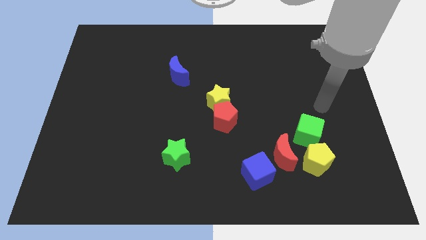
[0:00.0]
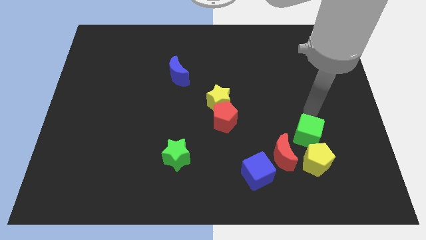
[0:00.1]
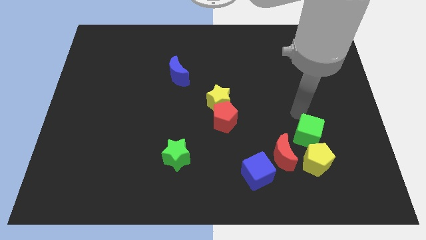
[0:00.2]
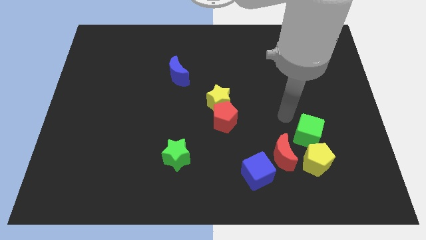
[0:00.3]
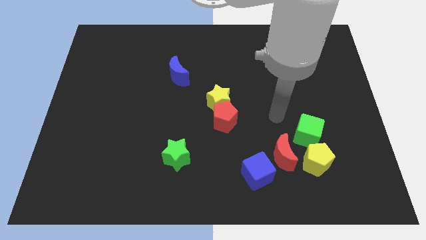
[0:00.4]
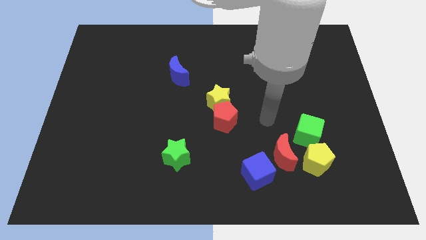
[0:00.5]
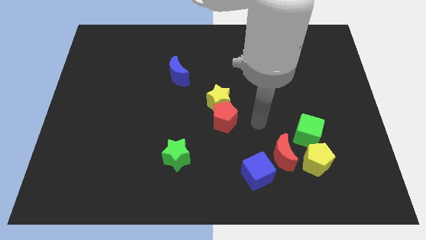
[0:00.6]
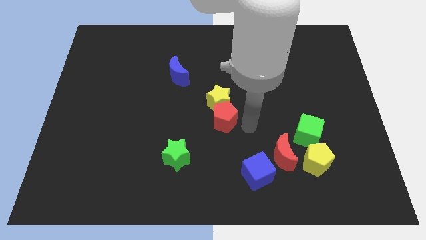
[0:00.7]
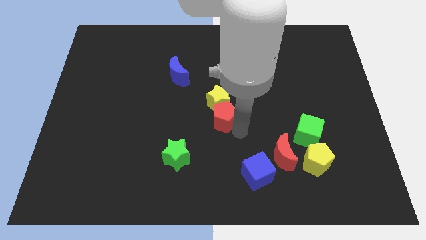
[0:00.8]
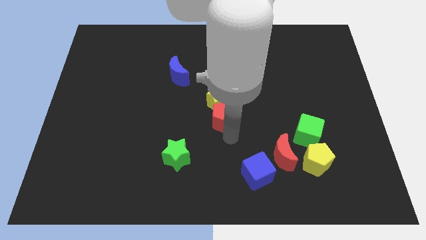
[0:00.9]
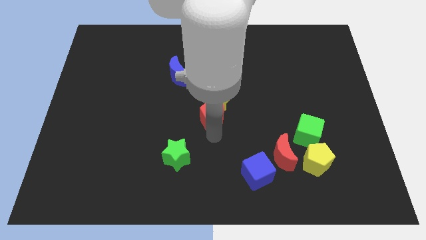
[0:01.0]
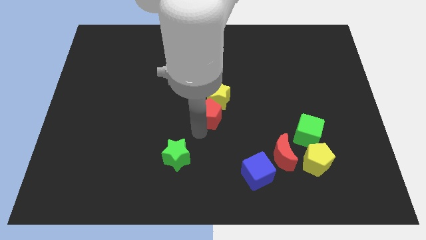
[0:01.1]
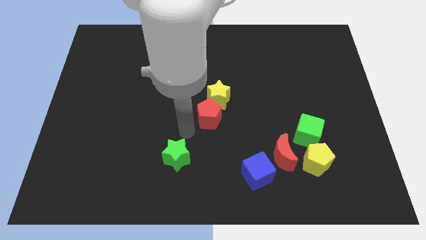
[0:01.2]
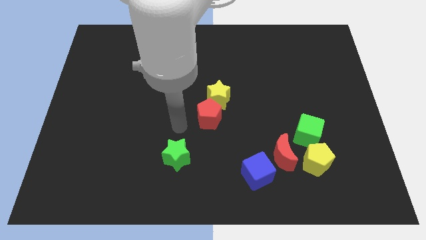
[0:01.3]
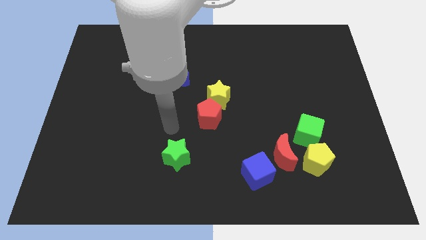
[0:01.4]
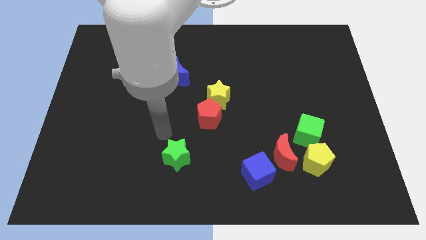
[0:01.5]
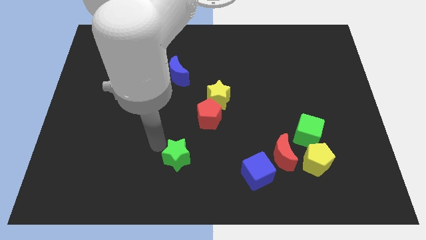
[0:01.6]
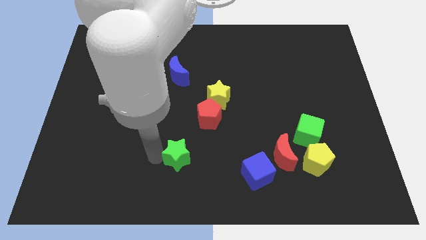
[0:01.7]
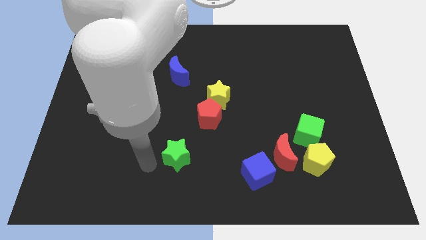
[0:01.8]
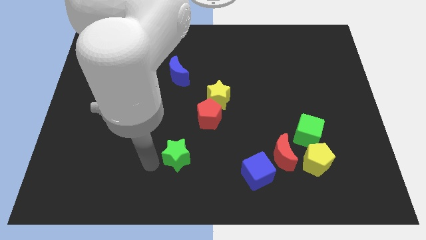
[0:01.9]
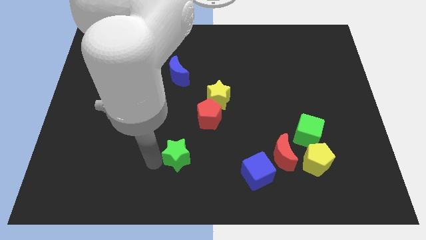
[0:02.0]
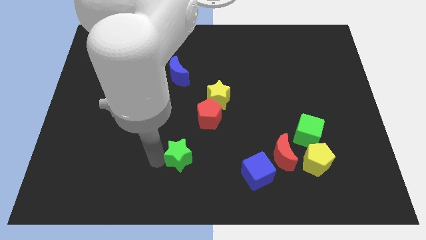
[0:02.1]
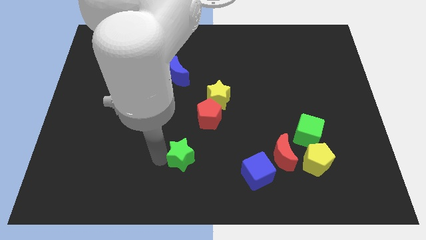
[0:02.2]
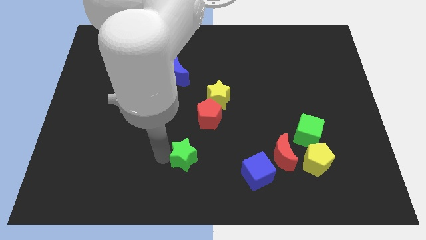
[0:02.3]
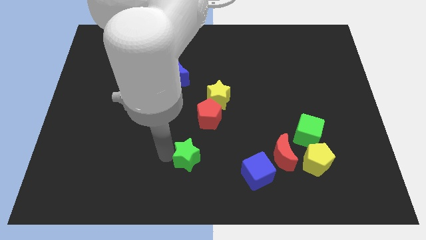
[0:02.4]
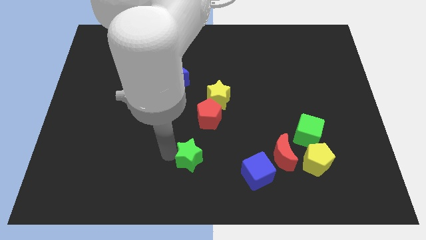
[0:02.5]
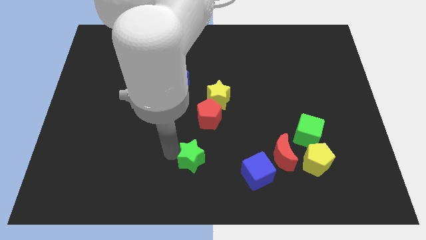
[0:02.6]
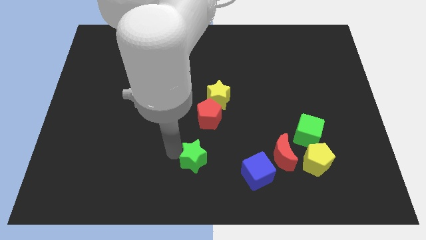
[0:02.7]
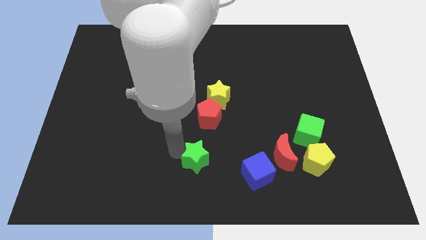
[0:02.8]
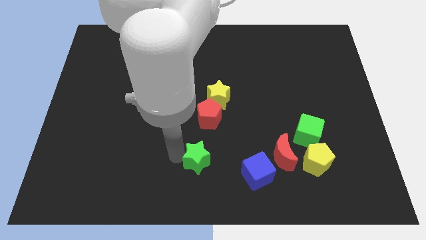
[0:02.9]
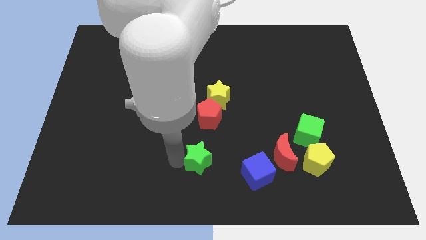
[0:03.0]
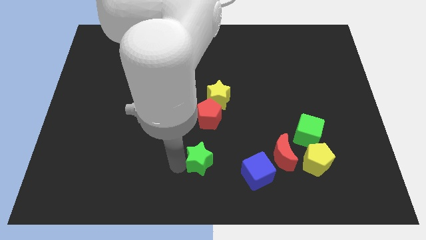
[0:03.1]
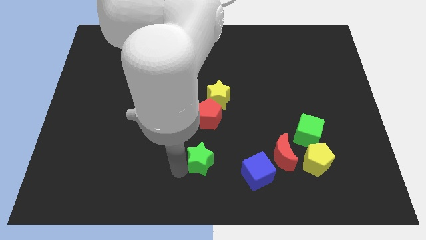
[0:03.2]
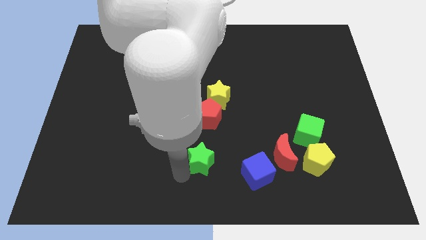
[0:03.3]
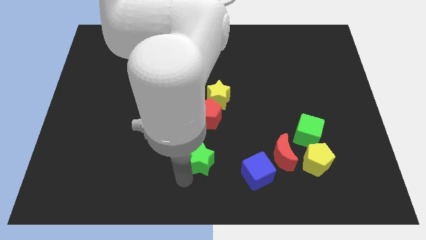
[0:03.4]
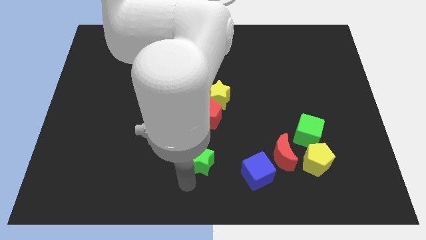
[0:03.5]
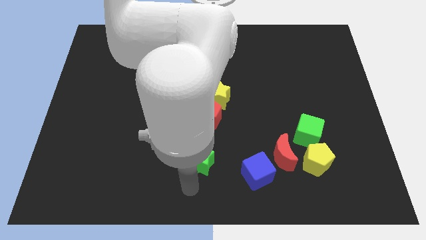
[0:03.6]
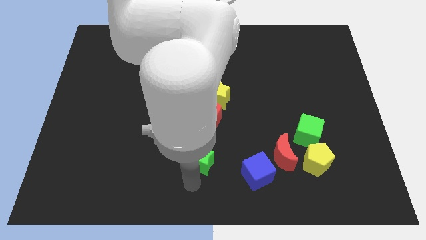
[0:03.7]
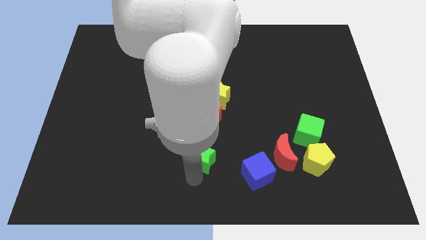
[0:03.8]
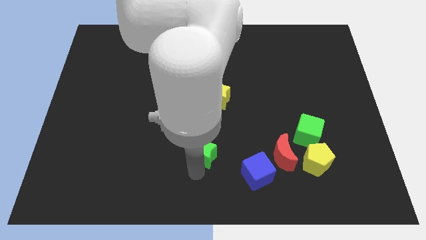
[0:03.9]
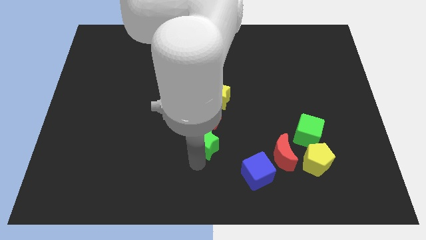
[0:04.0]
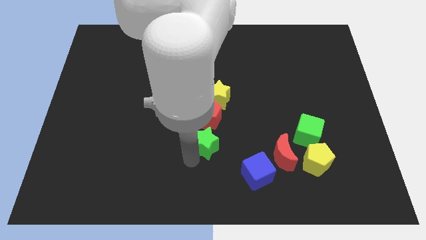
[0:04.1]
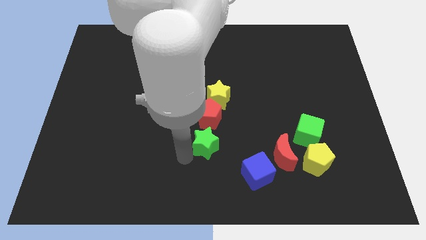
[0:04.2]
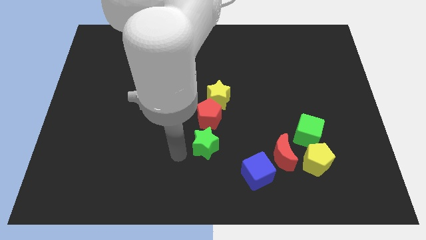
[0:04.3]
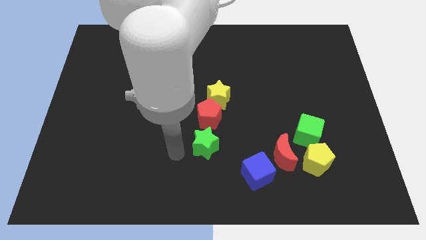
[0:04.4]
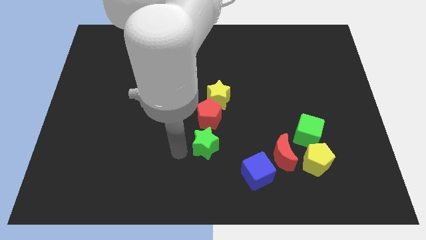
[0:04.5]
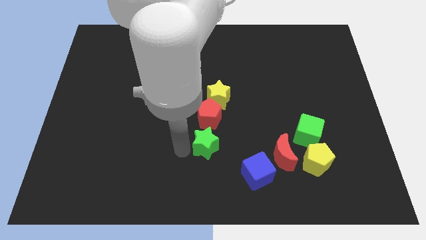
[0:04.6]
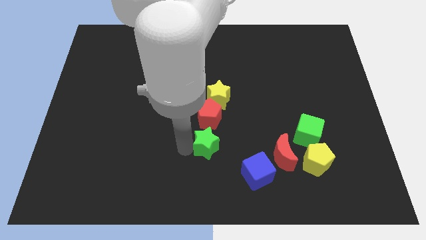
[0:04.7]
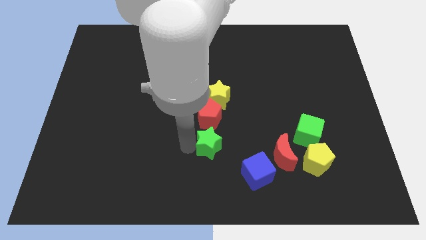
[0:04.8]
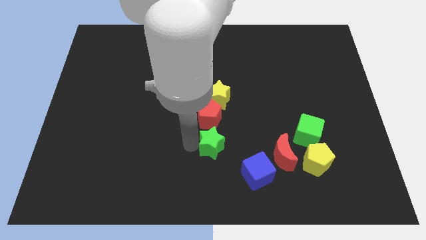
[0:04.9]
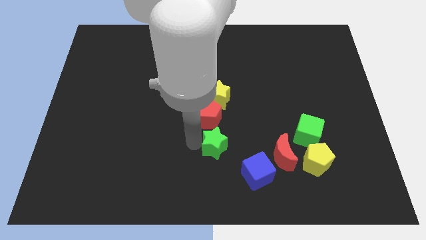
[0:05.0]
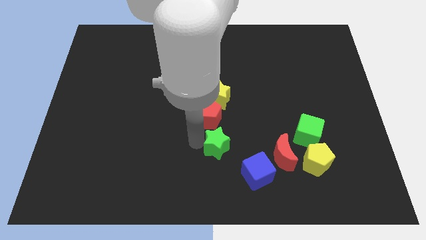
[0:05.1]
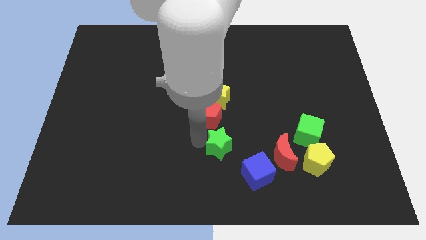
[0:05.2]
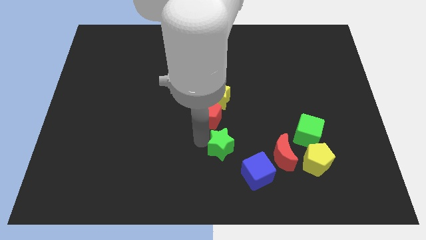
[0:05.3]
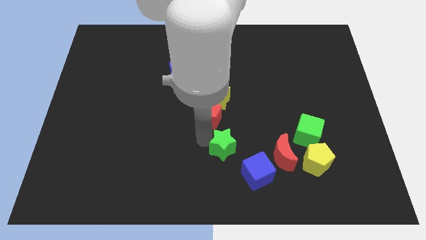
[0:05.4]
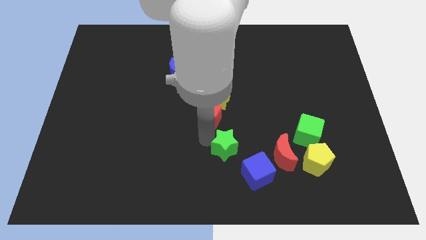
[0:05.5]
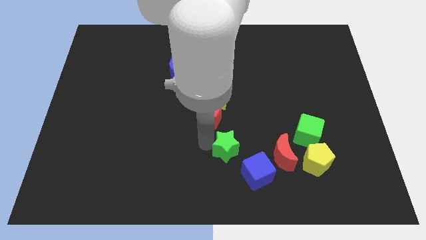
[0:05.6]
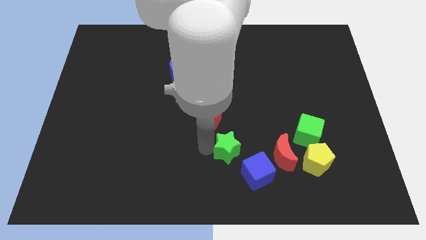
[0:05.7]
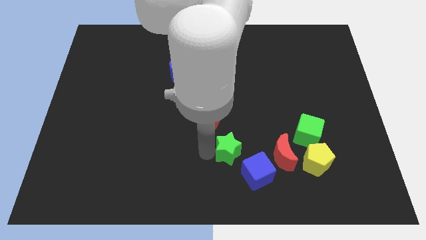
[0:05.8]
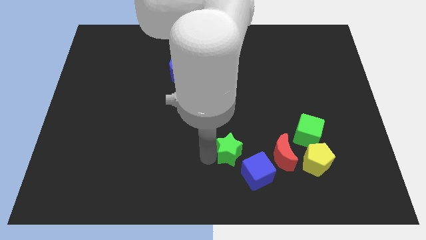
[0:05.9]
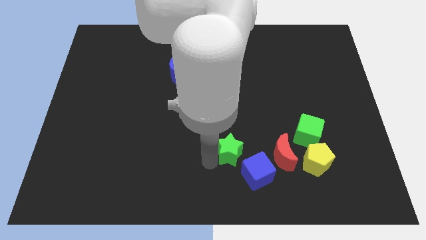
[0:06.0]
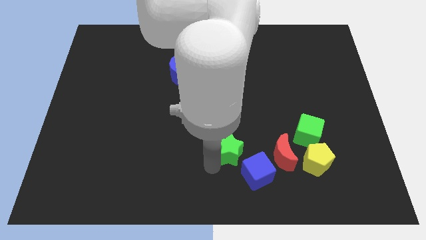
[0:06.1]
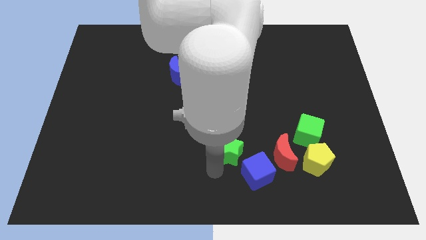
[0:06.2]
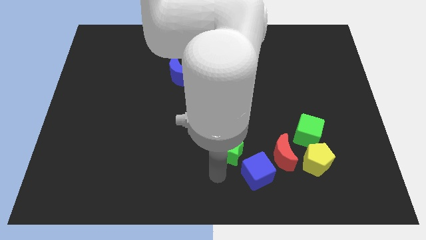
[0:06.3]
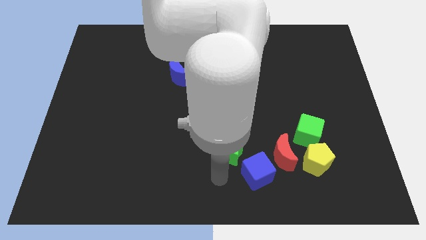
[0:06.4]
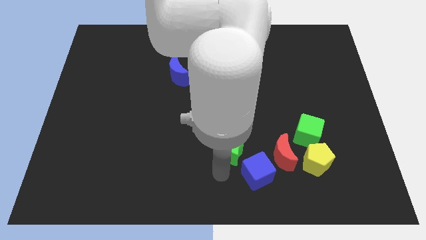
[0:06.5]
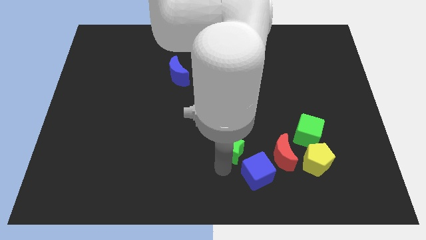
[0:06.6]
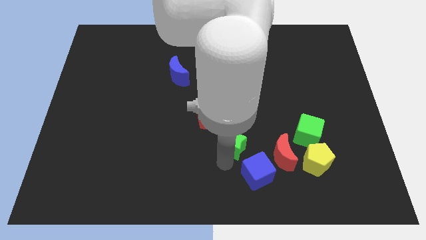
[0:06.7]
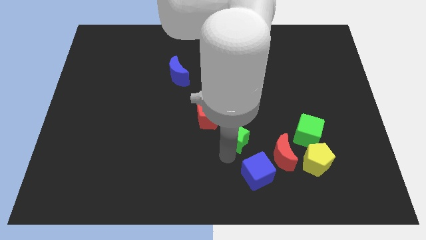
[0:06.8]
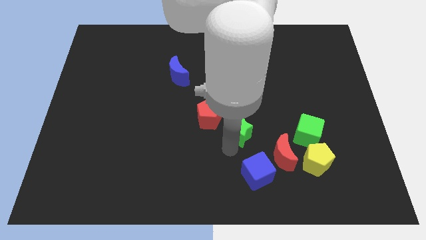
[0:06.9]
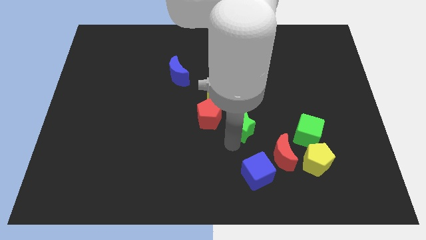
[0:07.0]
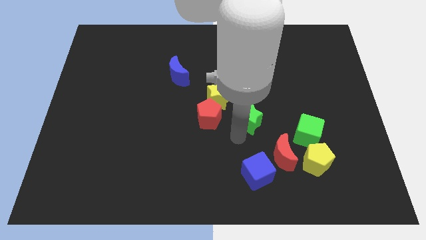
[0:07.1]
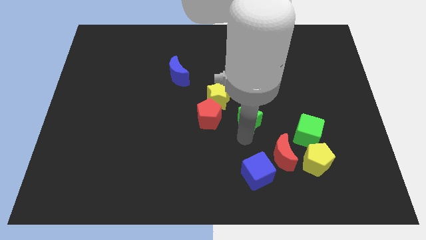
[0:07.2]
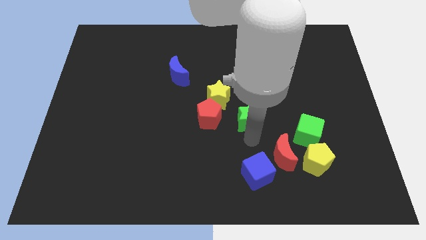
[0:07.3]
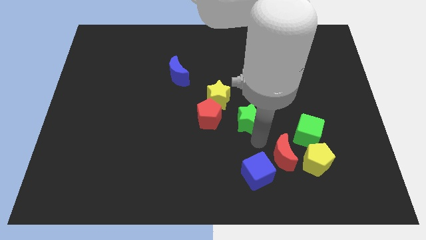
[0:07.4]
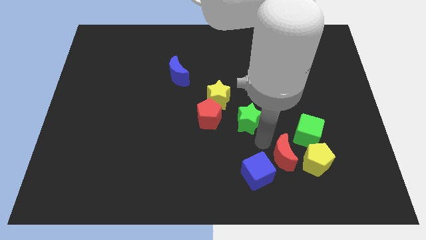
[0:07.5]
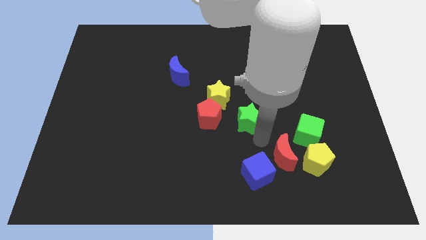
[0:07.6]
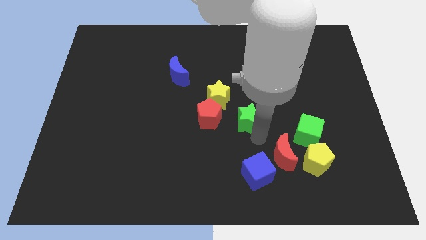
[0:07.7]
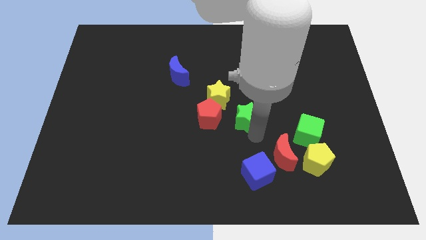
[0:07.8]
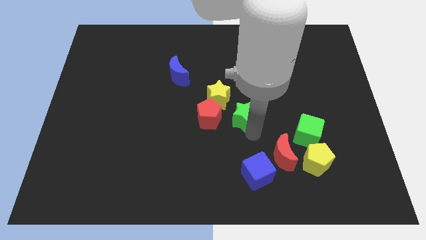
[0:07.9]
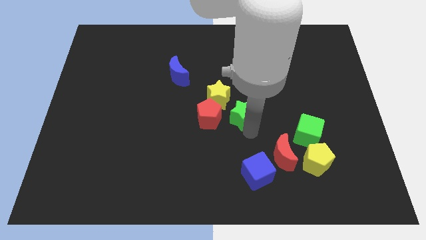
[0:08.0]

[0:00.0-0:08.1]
slide the green star to the top right of the red pentagon

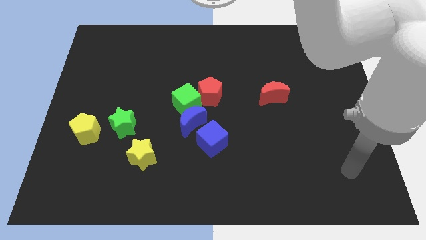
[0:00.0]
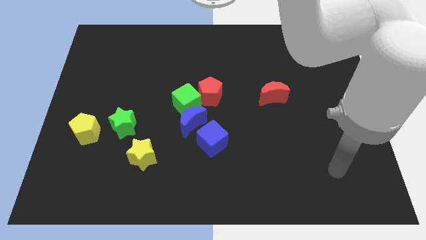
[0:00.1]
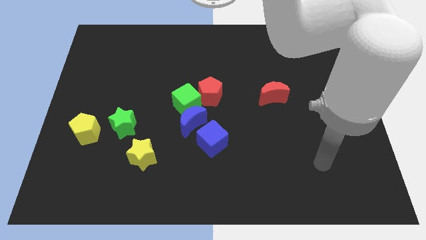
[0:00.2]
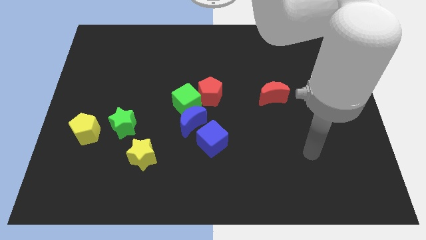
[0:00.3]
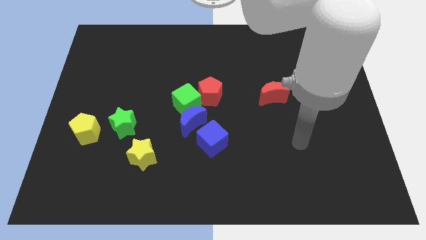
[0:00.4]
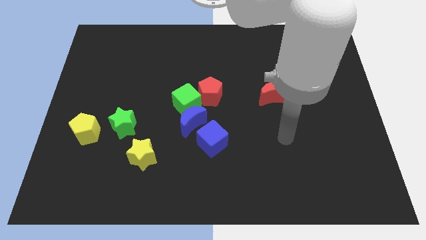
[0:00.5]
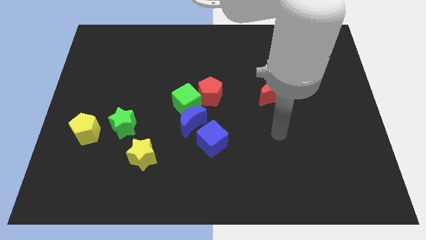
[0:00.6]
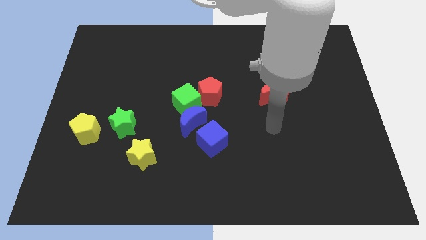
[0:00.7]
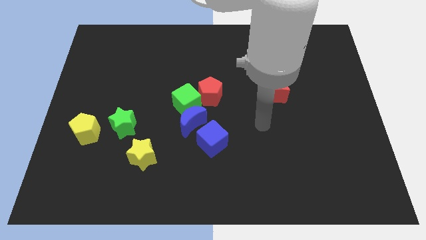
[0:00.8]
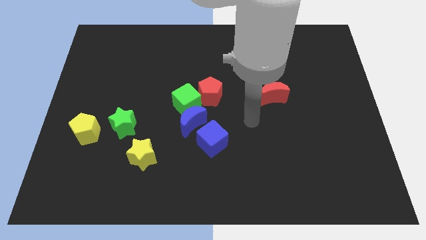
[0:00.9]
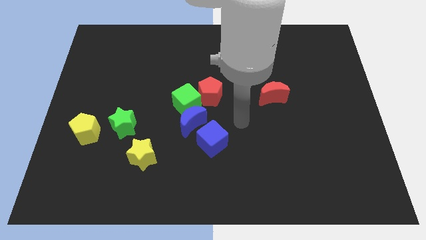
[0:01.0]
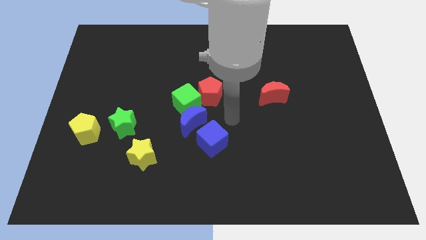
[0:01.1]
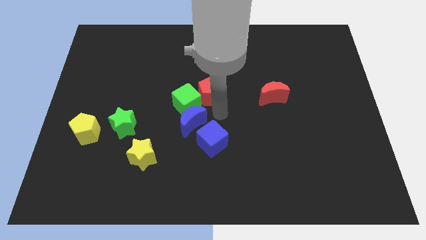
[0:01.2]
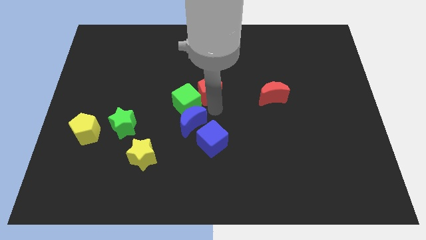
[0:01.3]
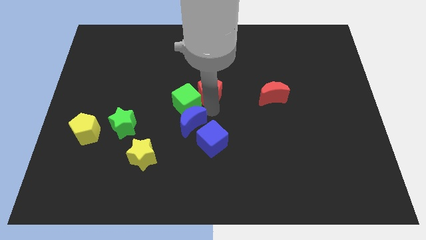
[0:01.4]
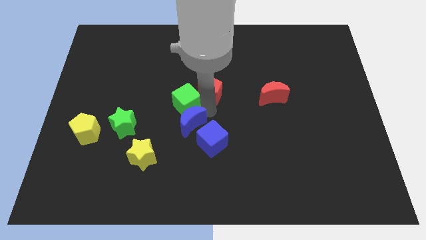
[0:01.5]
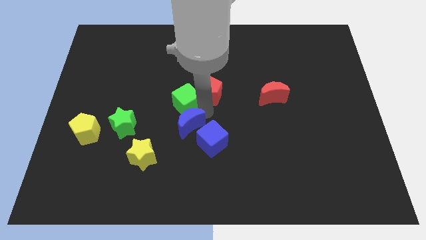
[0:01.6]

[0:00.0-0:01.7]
push the blue moon diagonally up and to the right of the yellow star
